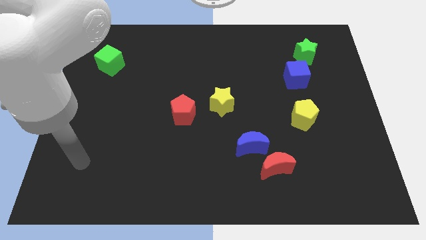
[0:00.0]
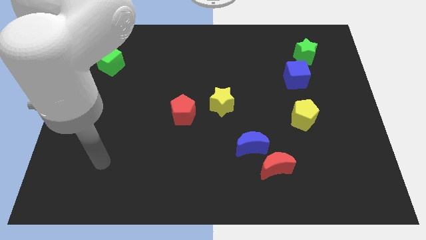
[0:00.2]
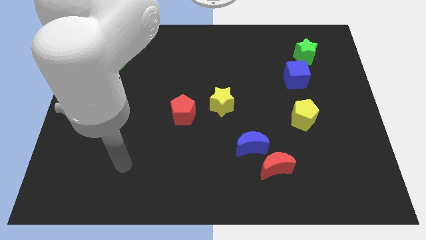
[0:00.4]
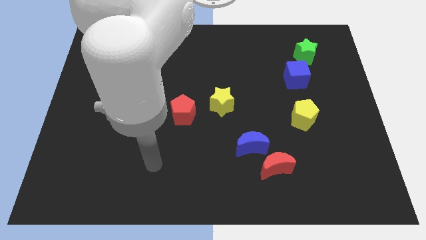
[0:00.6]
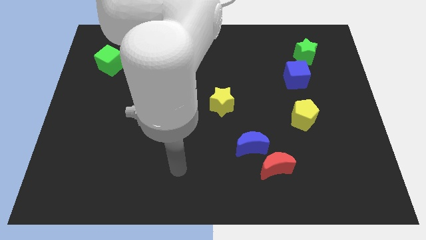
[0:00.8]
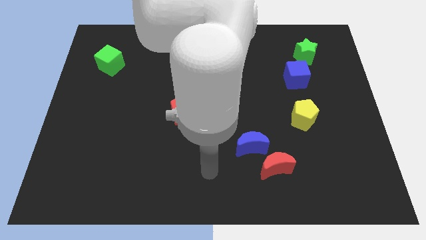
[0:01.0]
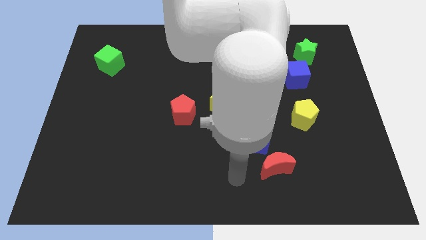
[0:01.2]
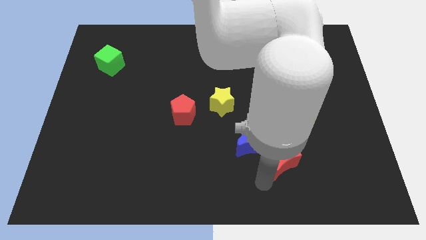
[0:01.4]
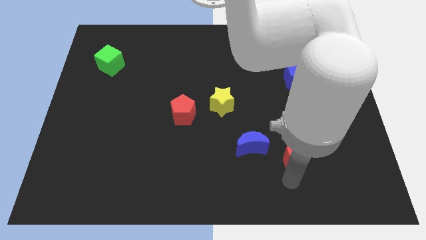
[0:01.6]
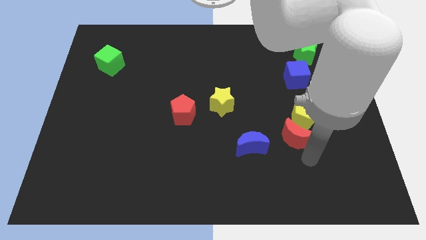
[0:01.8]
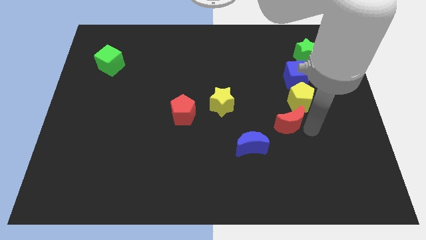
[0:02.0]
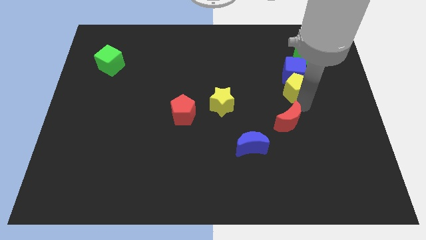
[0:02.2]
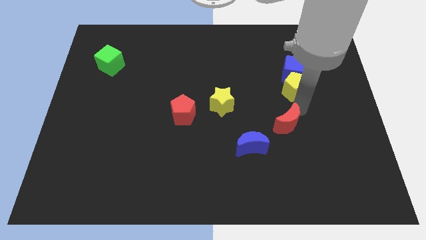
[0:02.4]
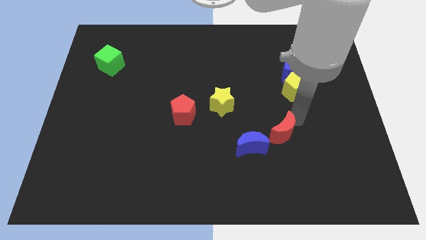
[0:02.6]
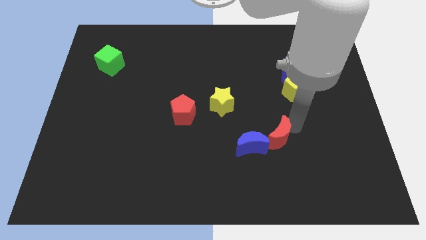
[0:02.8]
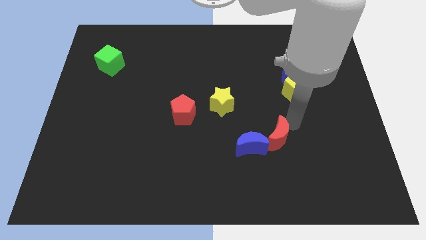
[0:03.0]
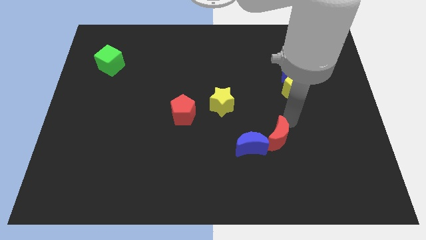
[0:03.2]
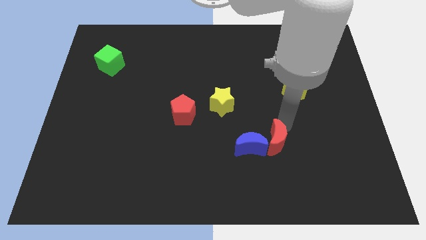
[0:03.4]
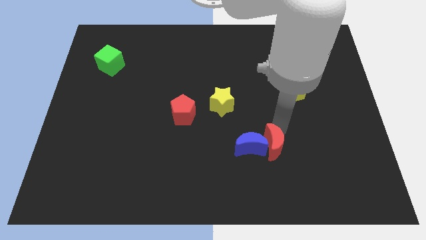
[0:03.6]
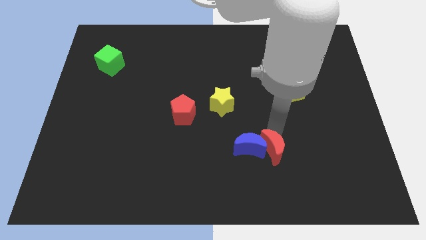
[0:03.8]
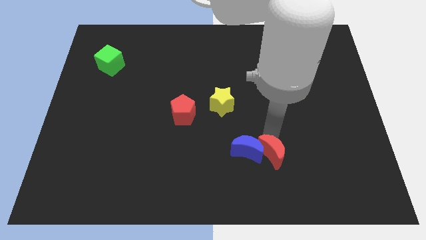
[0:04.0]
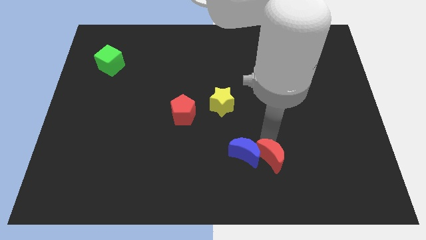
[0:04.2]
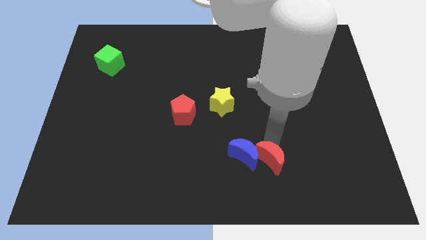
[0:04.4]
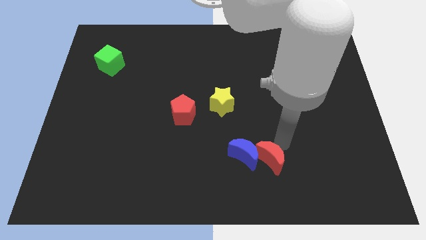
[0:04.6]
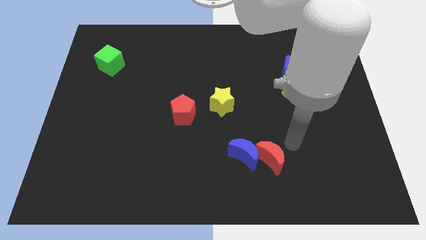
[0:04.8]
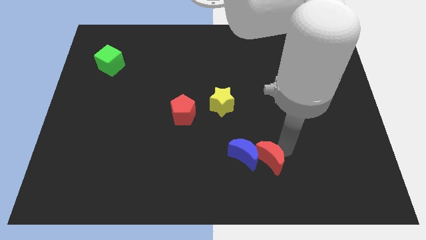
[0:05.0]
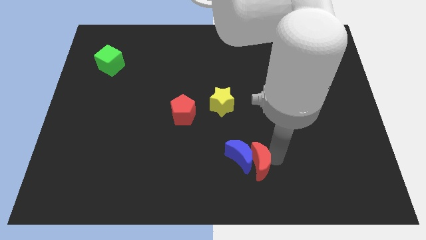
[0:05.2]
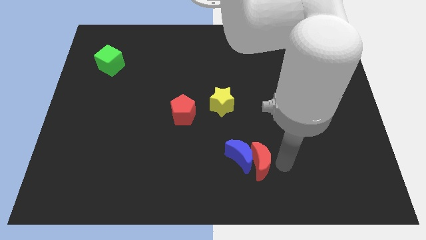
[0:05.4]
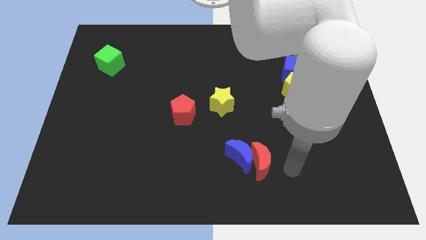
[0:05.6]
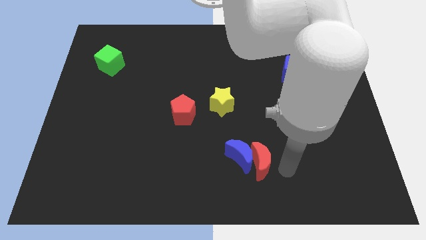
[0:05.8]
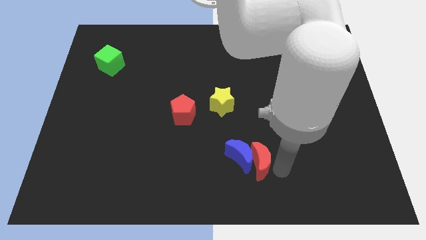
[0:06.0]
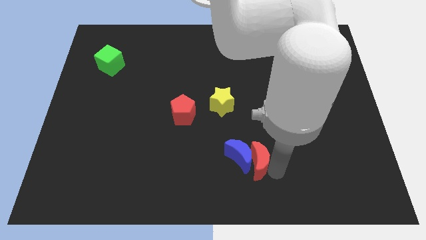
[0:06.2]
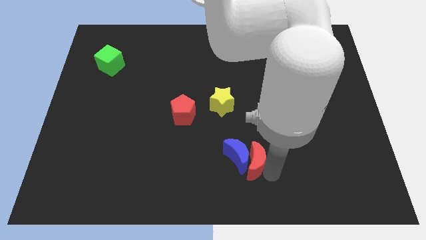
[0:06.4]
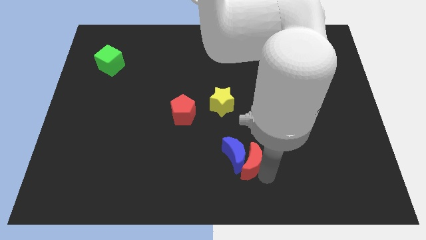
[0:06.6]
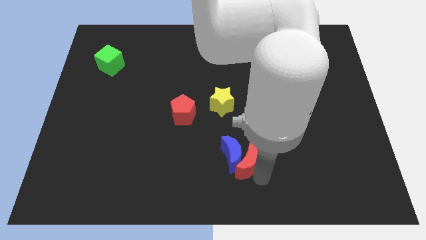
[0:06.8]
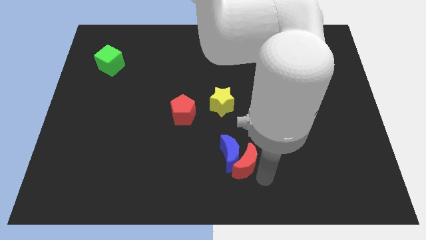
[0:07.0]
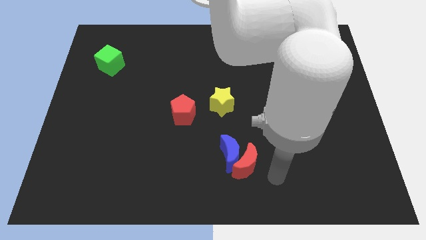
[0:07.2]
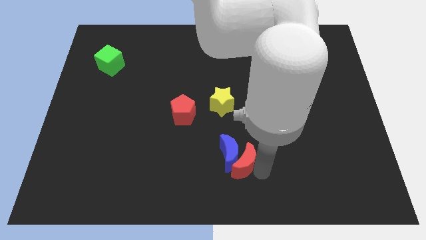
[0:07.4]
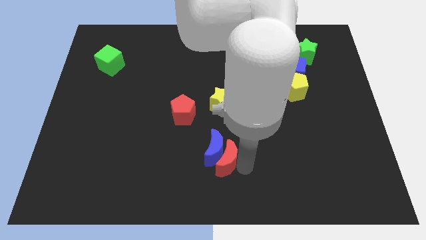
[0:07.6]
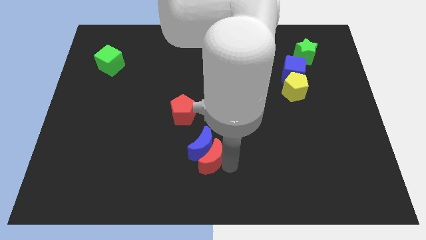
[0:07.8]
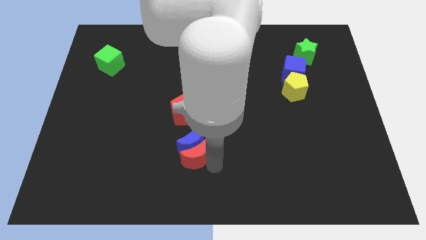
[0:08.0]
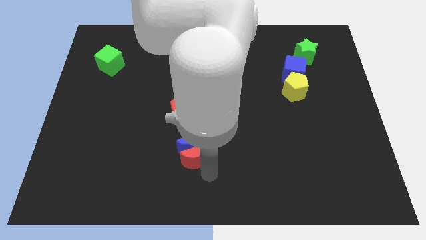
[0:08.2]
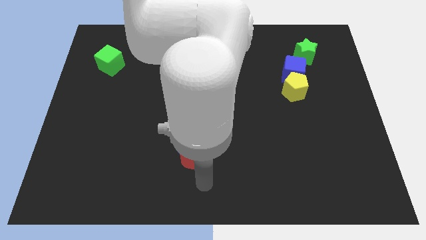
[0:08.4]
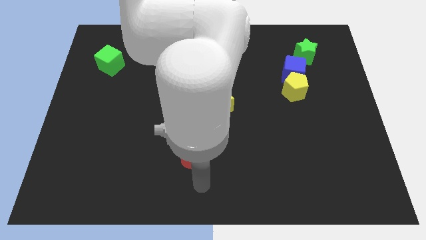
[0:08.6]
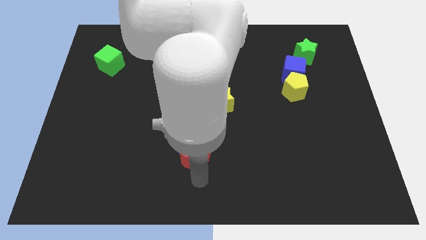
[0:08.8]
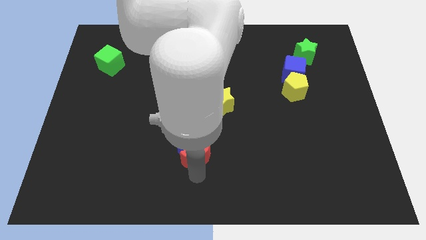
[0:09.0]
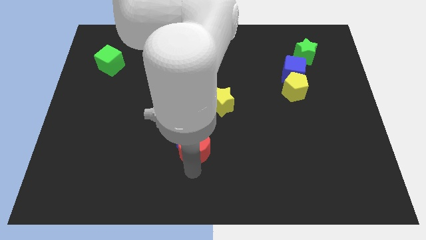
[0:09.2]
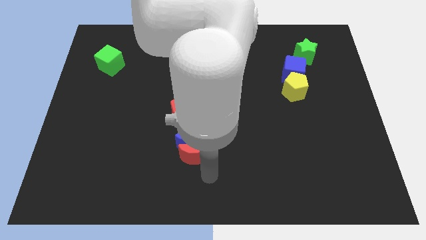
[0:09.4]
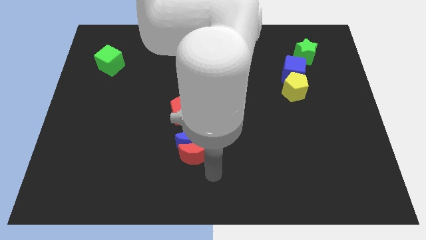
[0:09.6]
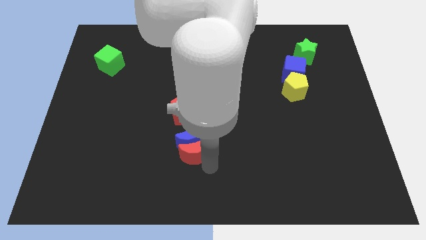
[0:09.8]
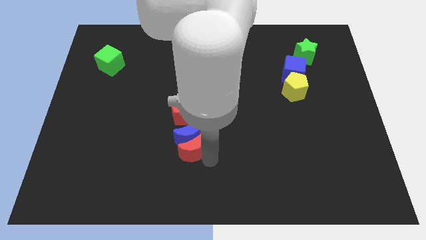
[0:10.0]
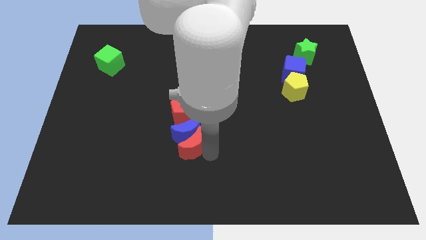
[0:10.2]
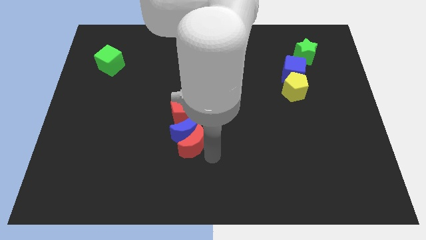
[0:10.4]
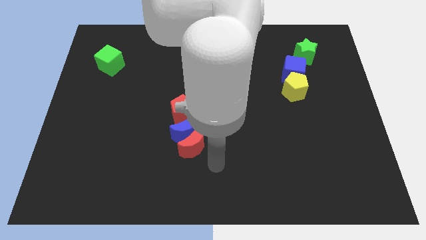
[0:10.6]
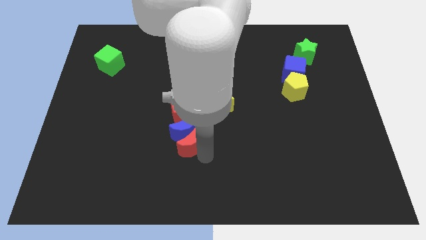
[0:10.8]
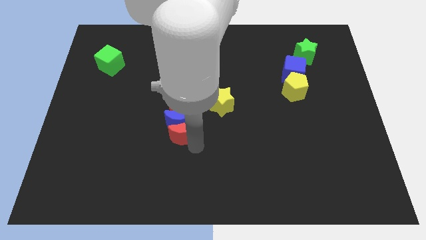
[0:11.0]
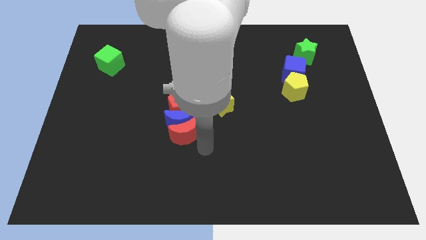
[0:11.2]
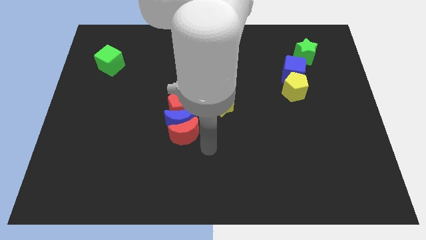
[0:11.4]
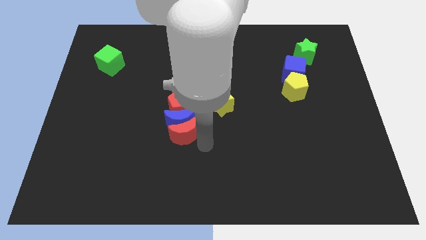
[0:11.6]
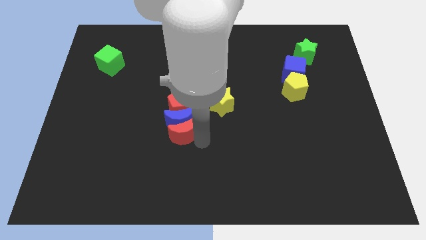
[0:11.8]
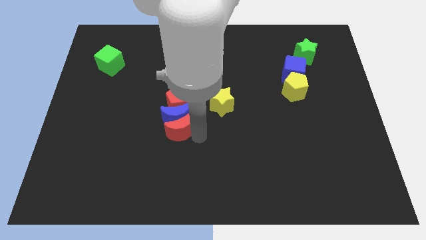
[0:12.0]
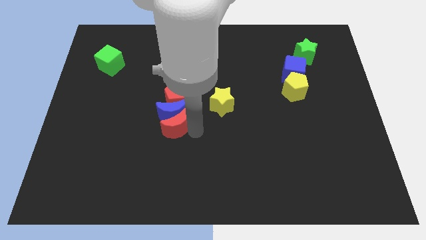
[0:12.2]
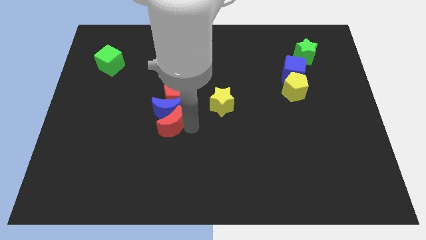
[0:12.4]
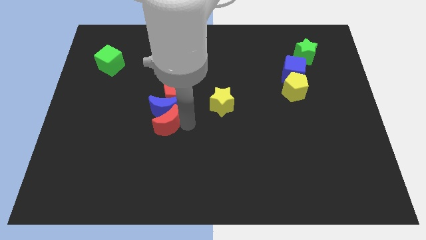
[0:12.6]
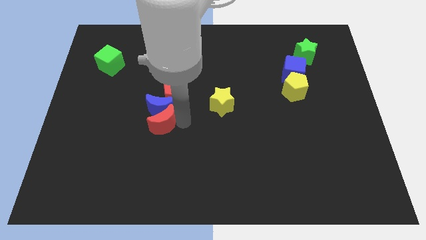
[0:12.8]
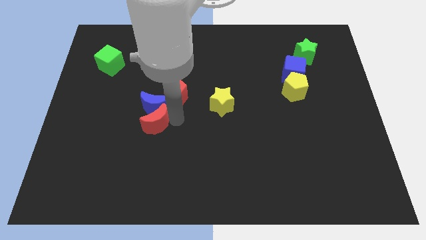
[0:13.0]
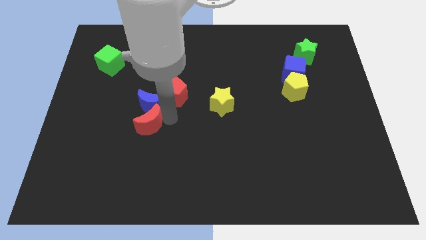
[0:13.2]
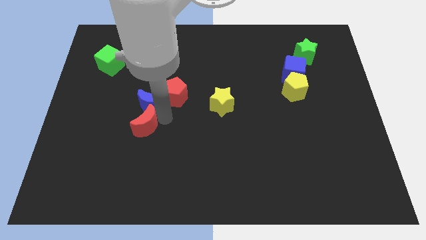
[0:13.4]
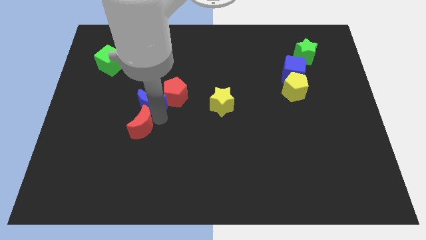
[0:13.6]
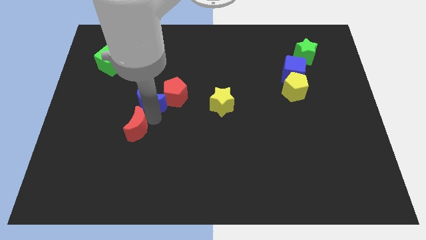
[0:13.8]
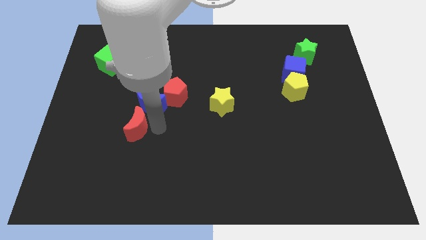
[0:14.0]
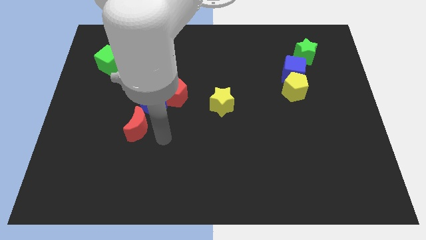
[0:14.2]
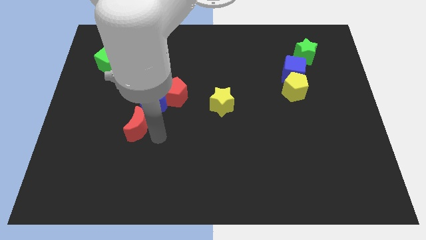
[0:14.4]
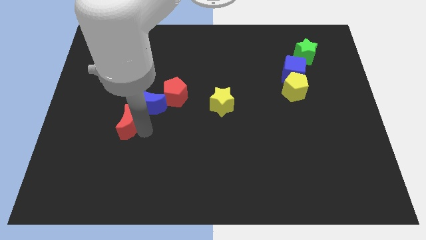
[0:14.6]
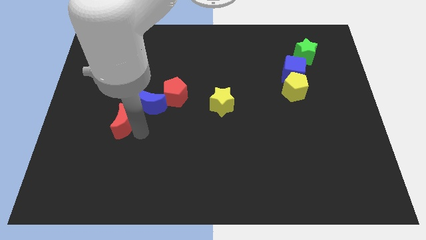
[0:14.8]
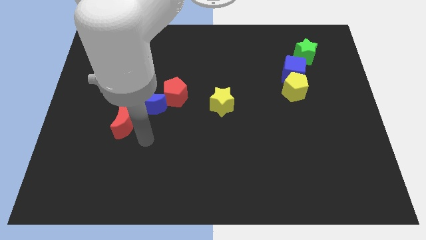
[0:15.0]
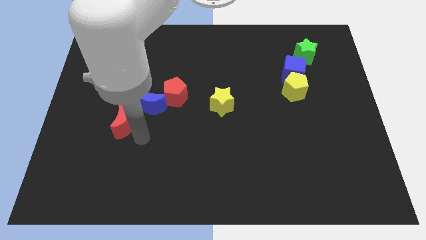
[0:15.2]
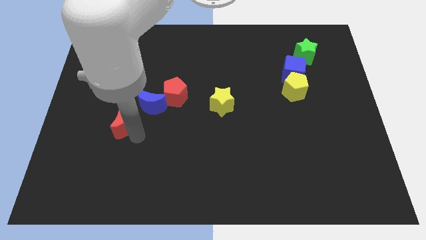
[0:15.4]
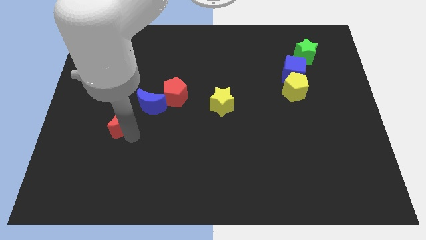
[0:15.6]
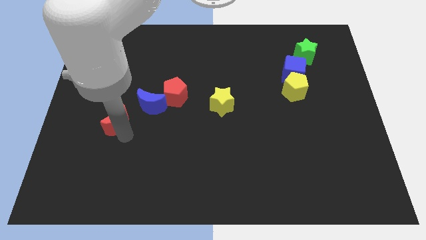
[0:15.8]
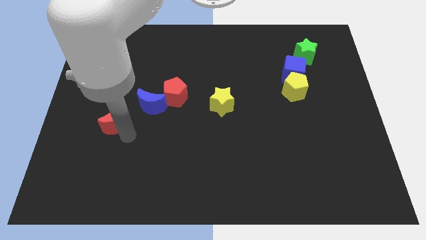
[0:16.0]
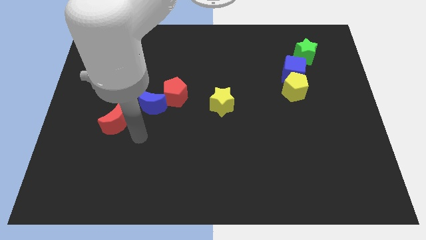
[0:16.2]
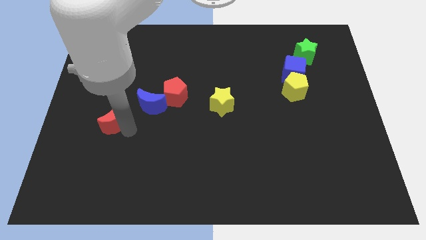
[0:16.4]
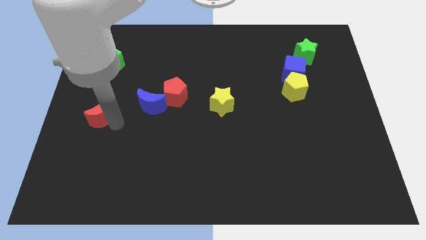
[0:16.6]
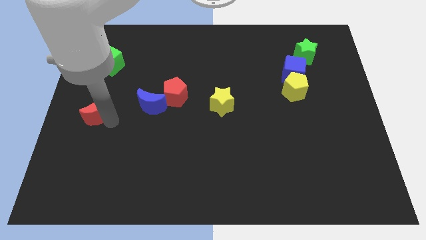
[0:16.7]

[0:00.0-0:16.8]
put the red moon to the left side of the board
